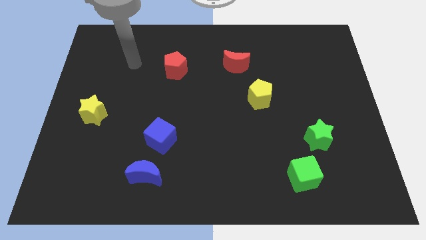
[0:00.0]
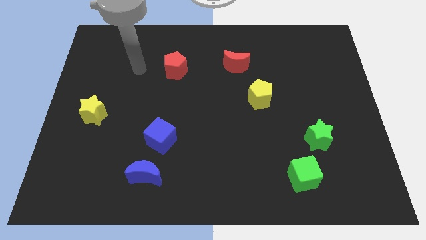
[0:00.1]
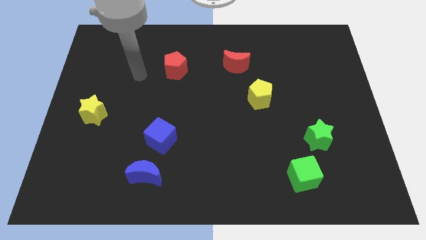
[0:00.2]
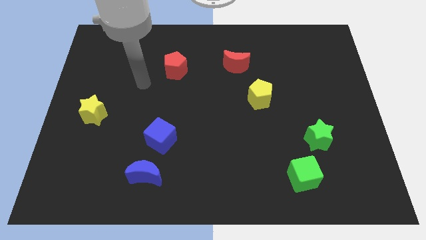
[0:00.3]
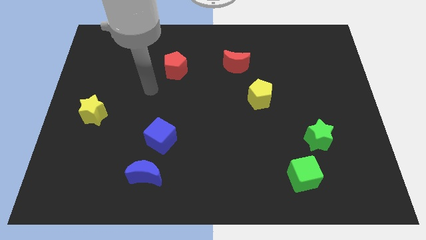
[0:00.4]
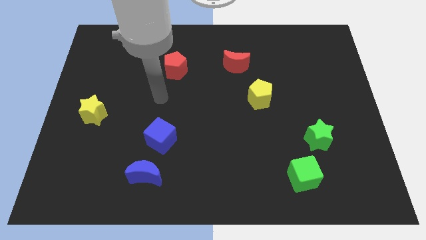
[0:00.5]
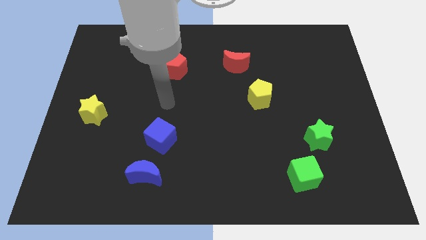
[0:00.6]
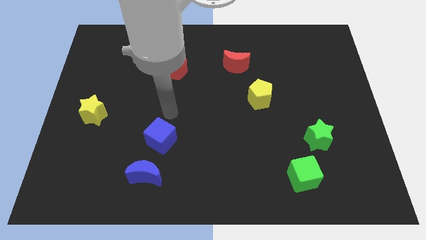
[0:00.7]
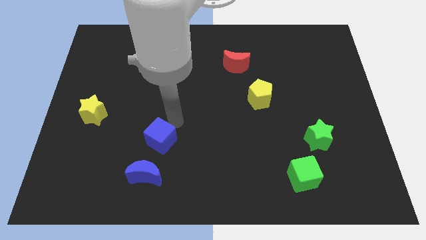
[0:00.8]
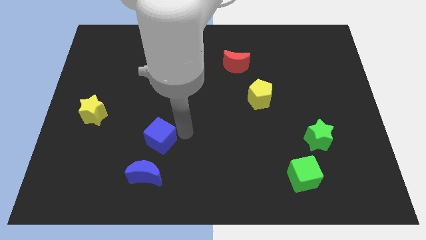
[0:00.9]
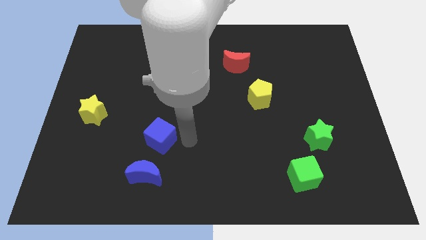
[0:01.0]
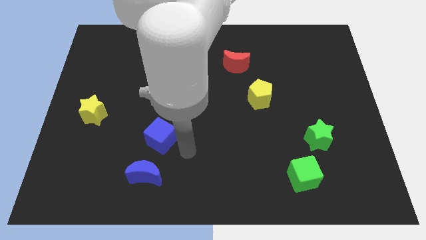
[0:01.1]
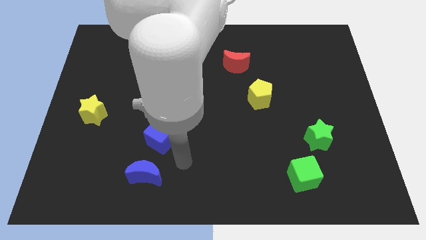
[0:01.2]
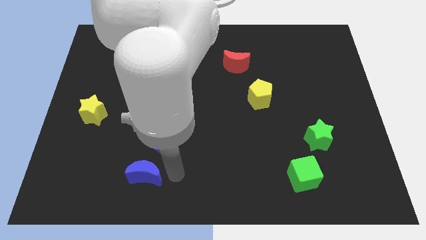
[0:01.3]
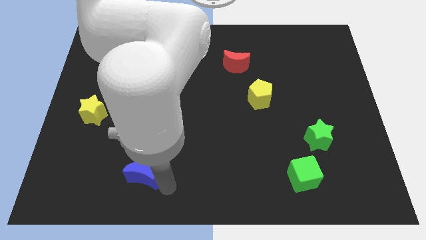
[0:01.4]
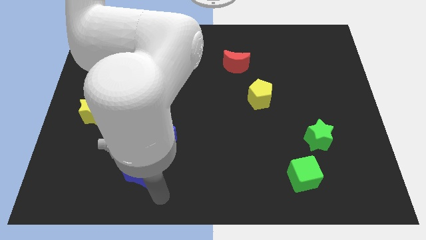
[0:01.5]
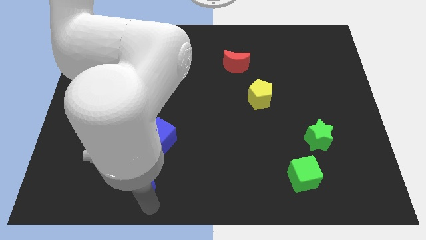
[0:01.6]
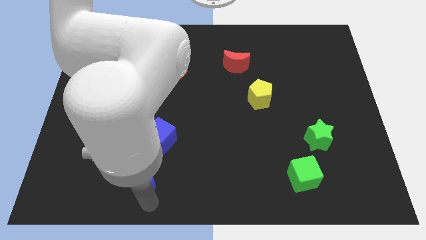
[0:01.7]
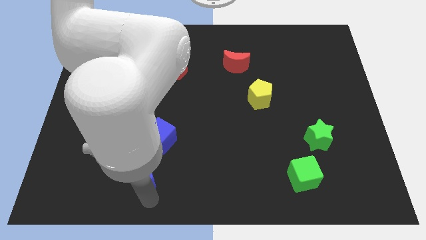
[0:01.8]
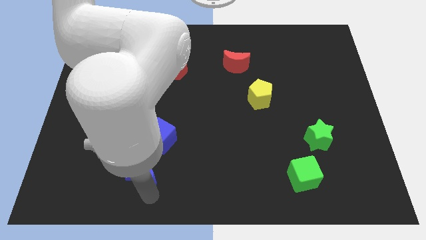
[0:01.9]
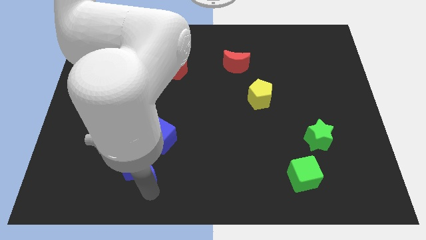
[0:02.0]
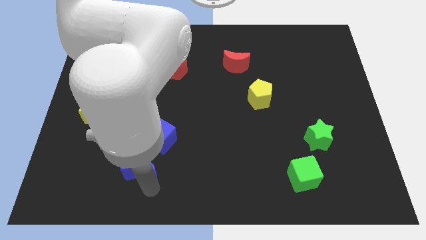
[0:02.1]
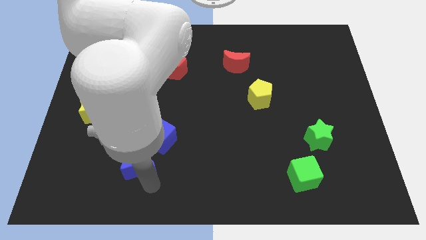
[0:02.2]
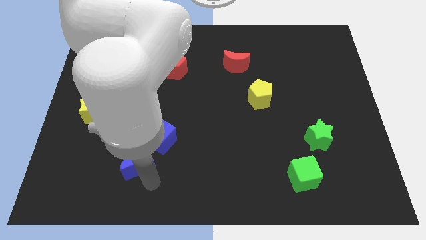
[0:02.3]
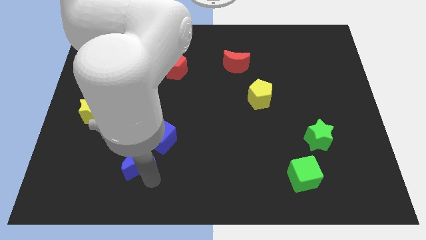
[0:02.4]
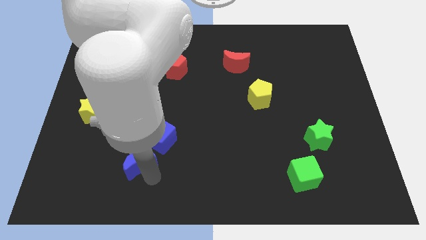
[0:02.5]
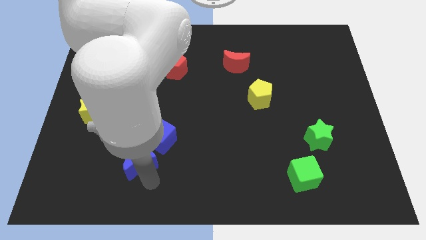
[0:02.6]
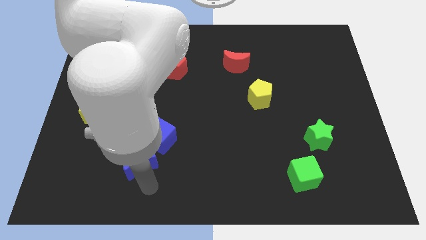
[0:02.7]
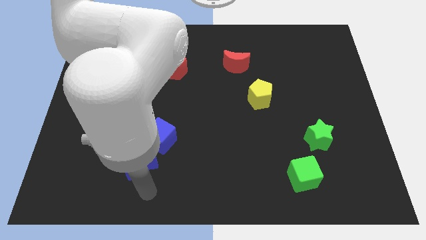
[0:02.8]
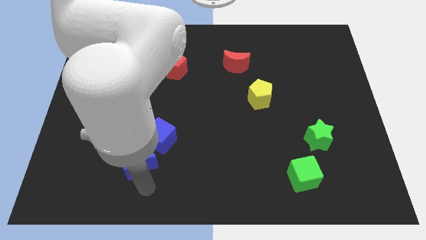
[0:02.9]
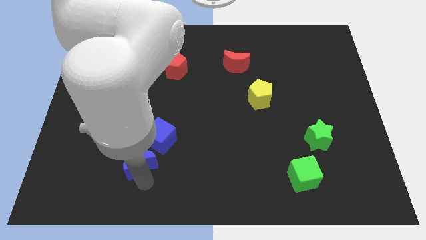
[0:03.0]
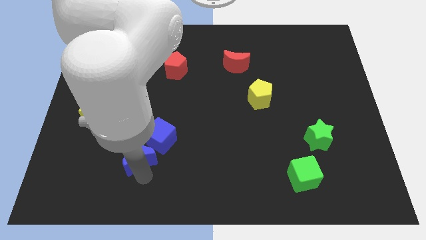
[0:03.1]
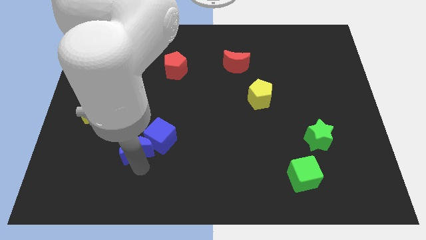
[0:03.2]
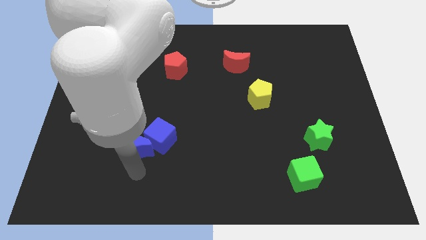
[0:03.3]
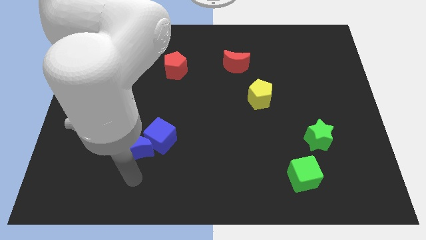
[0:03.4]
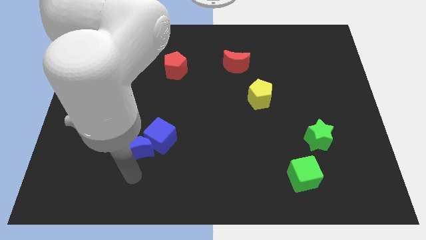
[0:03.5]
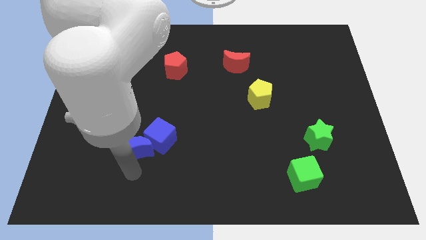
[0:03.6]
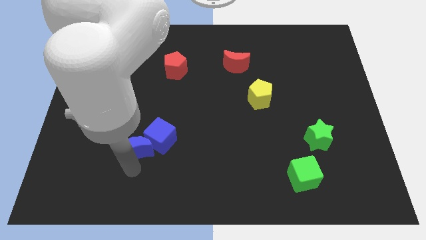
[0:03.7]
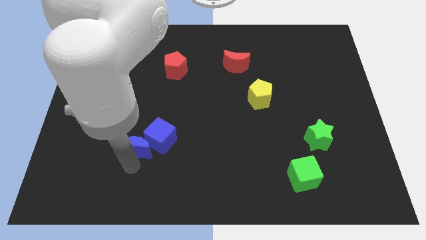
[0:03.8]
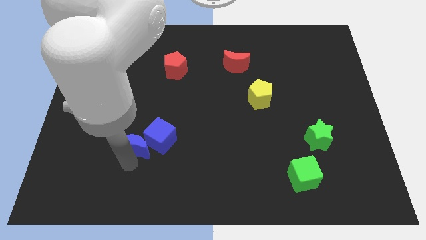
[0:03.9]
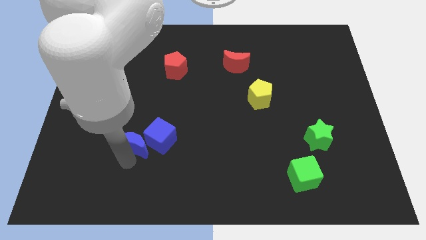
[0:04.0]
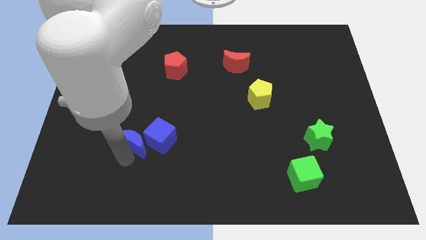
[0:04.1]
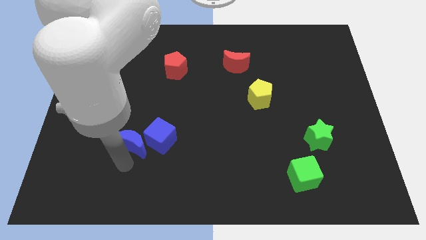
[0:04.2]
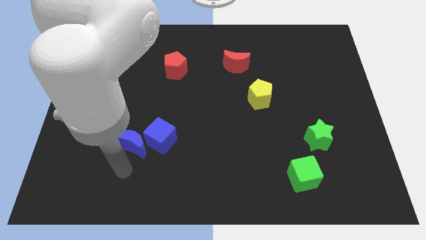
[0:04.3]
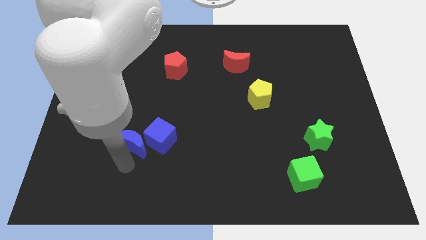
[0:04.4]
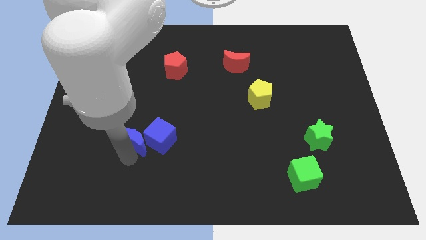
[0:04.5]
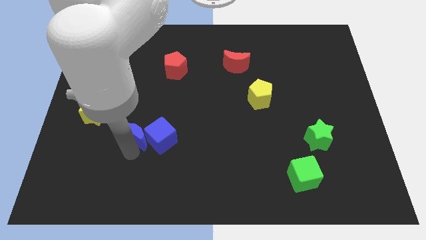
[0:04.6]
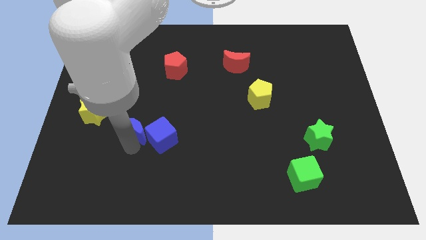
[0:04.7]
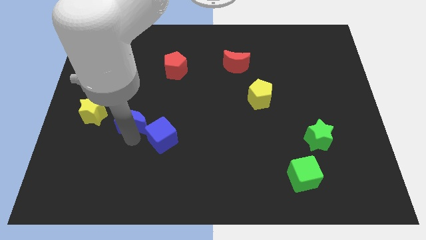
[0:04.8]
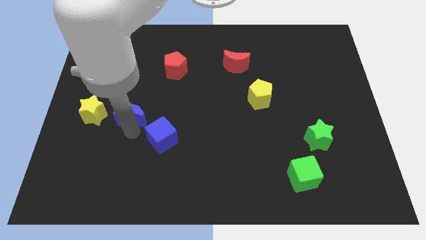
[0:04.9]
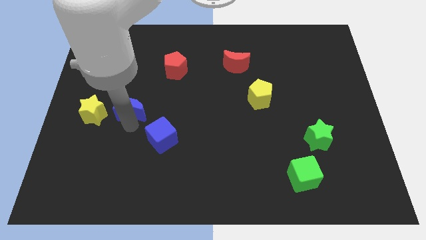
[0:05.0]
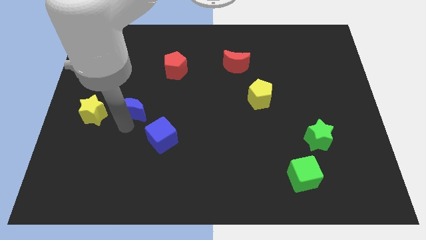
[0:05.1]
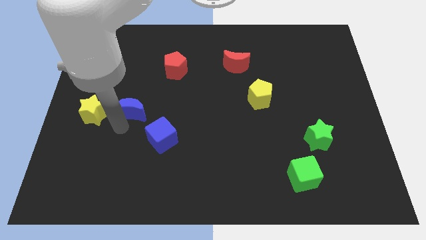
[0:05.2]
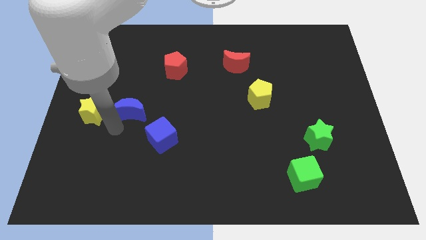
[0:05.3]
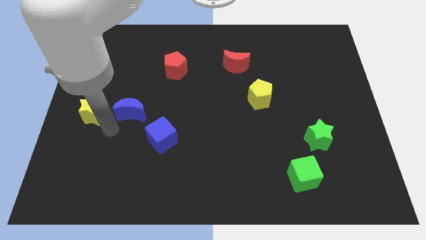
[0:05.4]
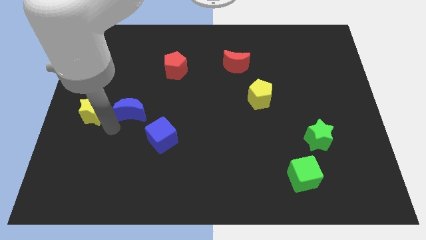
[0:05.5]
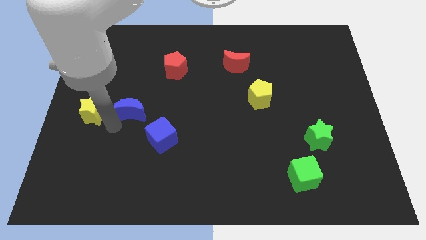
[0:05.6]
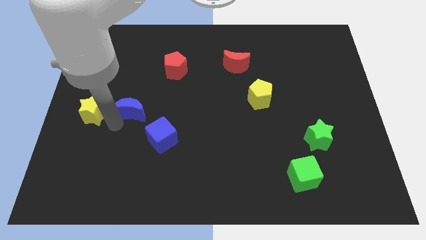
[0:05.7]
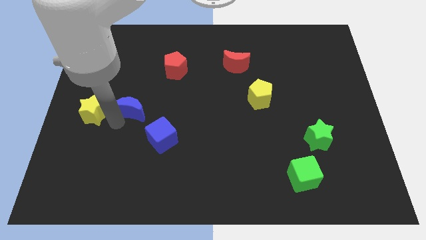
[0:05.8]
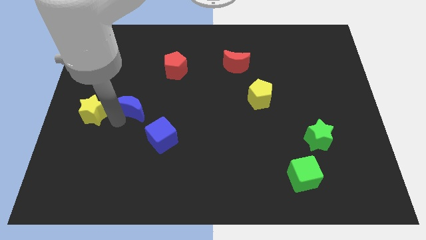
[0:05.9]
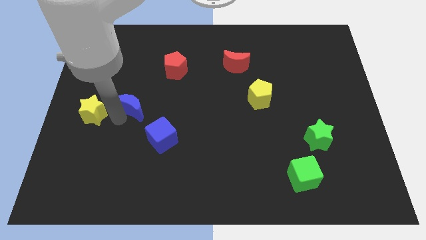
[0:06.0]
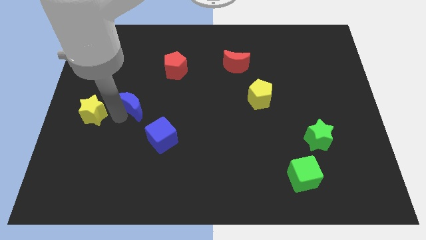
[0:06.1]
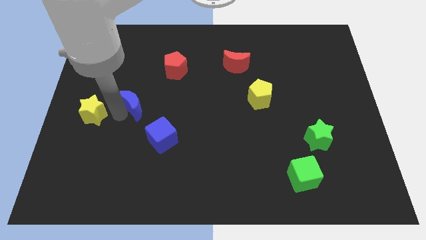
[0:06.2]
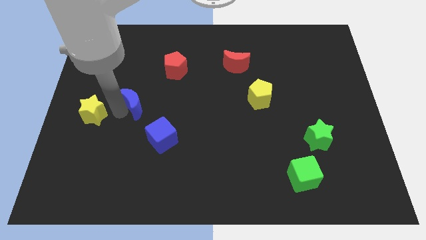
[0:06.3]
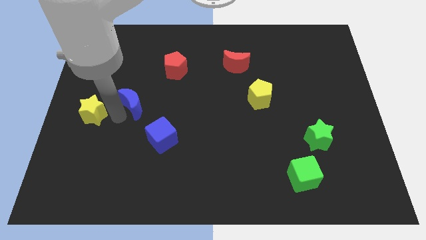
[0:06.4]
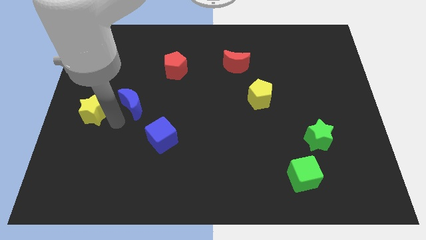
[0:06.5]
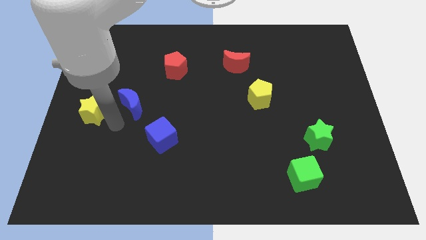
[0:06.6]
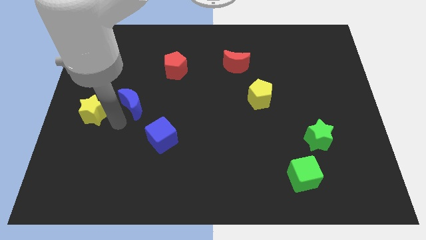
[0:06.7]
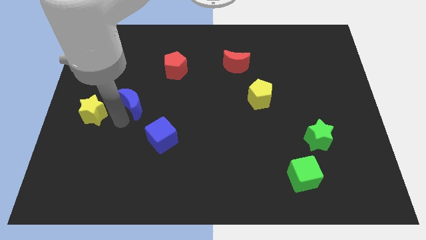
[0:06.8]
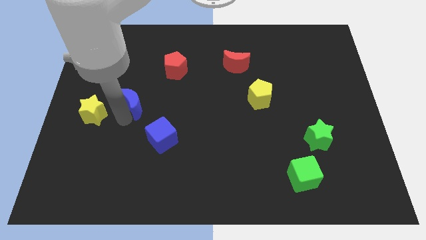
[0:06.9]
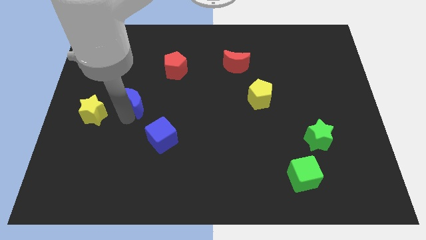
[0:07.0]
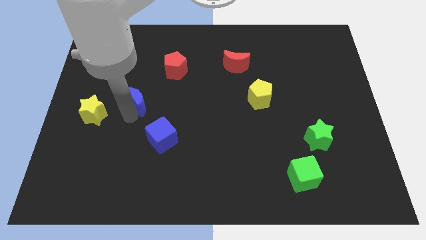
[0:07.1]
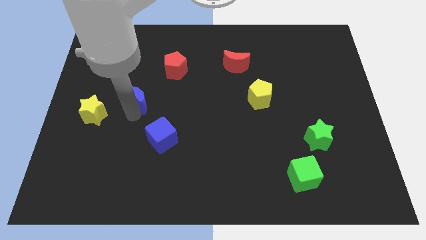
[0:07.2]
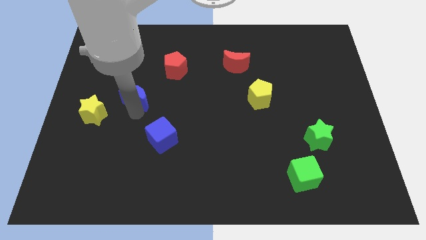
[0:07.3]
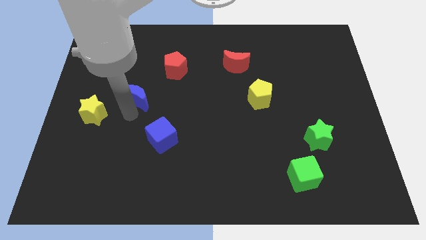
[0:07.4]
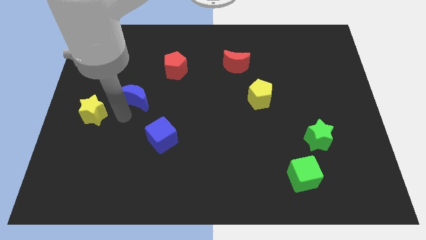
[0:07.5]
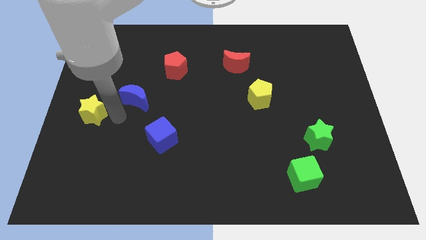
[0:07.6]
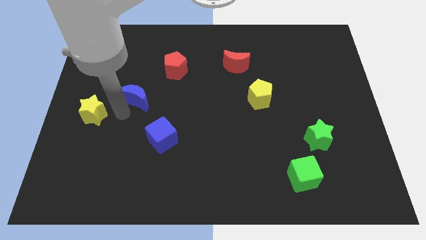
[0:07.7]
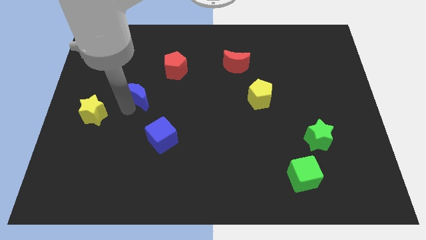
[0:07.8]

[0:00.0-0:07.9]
push the blue moon upwards

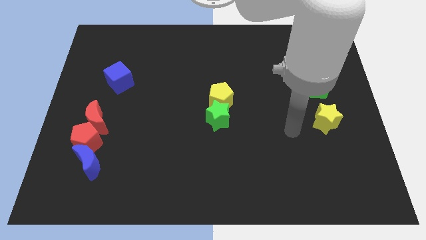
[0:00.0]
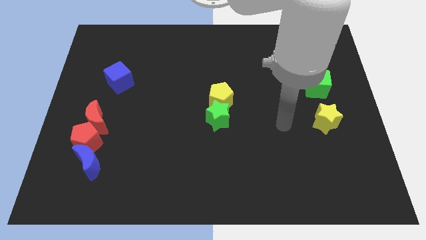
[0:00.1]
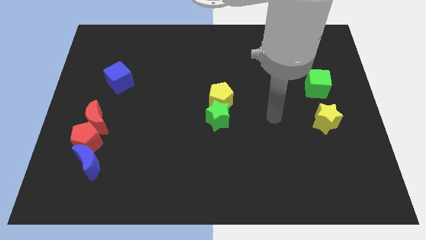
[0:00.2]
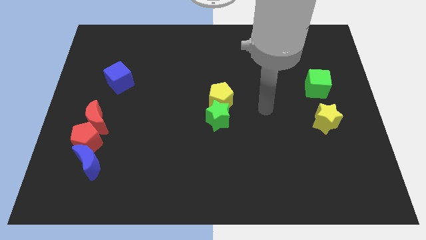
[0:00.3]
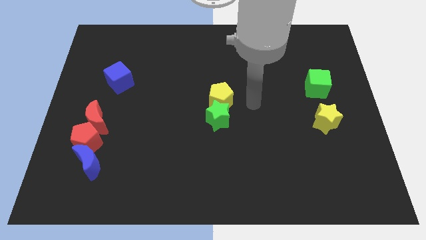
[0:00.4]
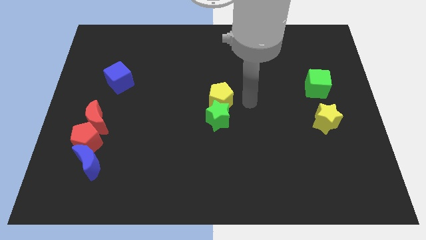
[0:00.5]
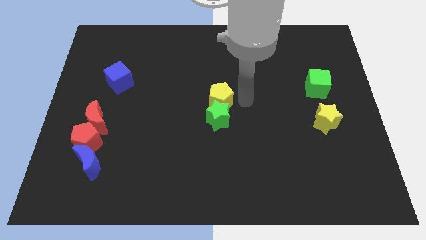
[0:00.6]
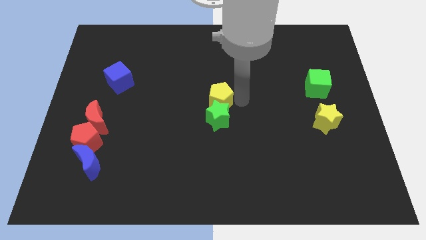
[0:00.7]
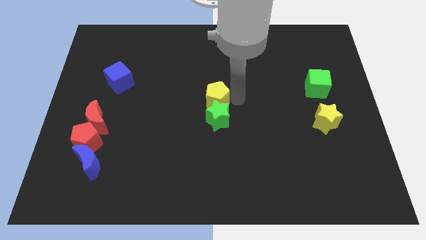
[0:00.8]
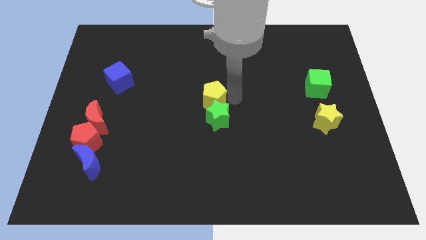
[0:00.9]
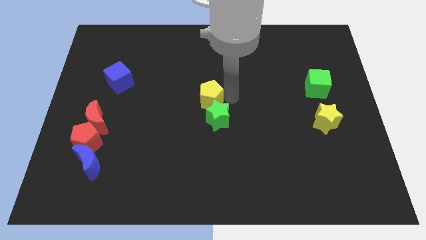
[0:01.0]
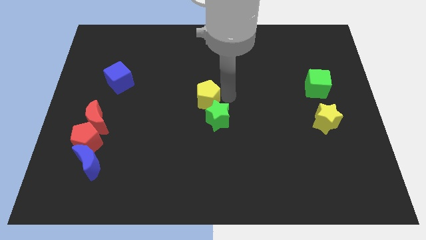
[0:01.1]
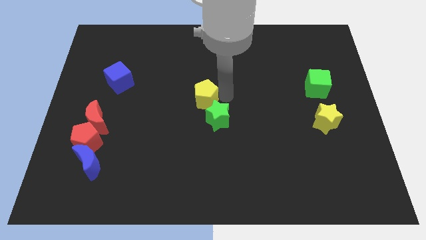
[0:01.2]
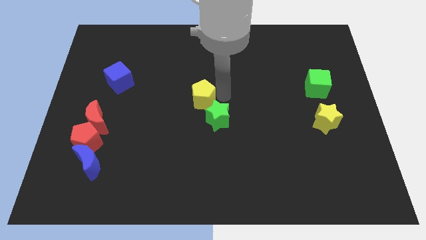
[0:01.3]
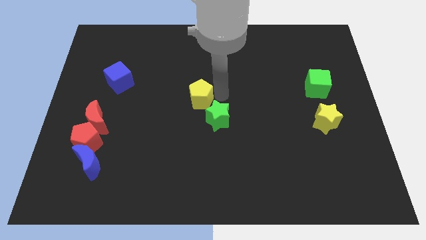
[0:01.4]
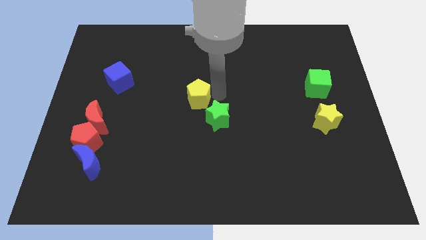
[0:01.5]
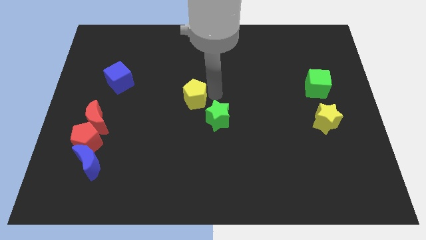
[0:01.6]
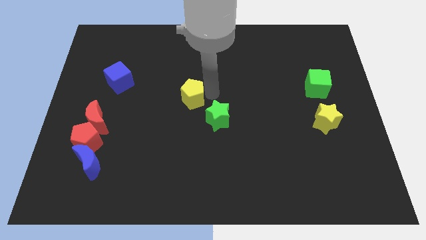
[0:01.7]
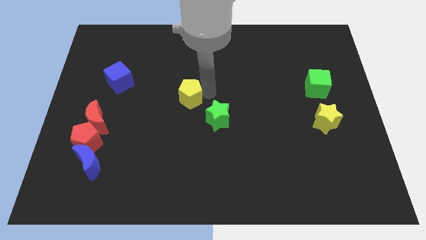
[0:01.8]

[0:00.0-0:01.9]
push the yellow pentagon a bit left
